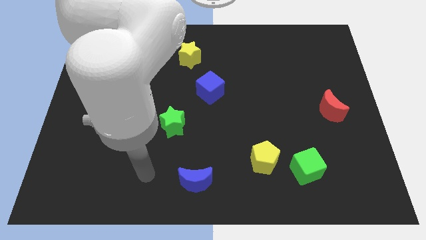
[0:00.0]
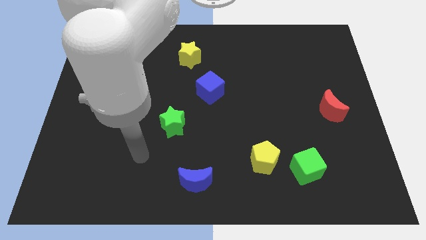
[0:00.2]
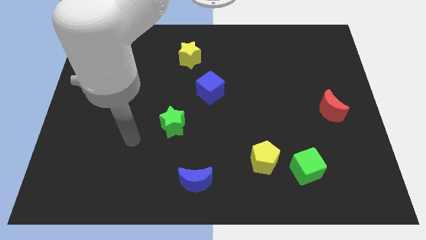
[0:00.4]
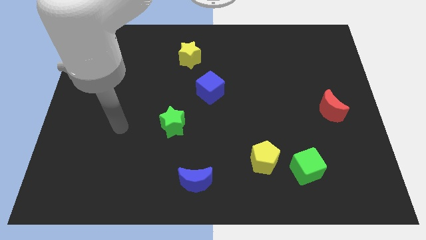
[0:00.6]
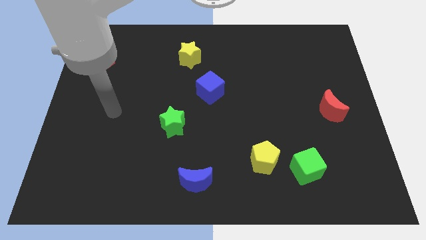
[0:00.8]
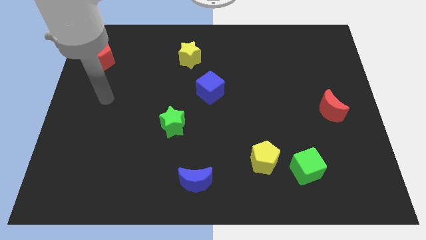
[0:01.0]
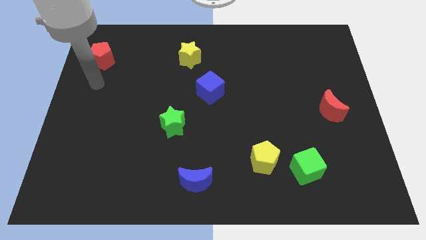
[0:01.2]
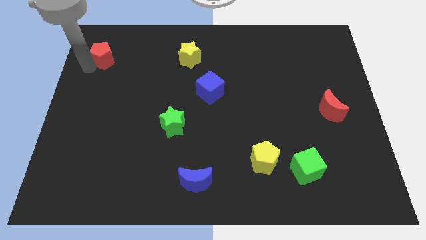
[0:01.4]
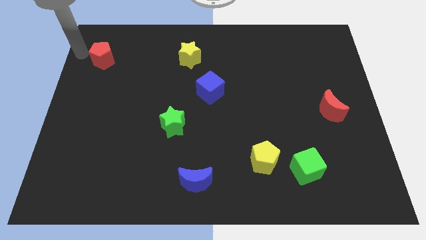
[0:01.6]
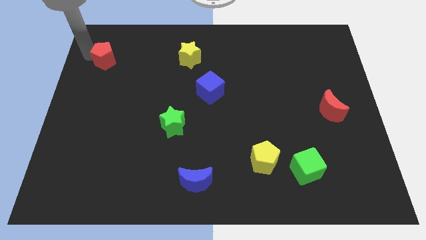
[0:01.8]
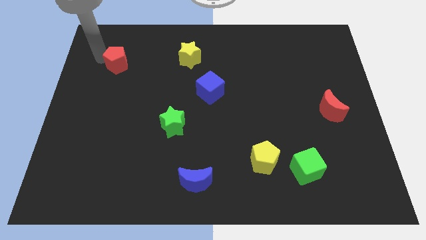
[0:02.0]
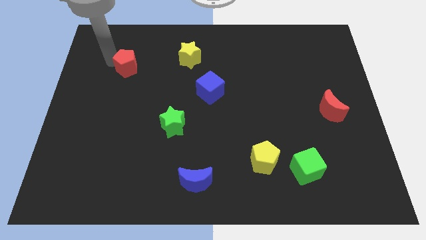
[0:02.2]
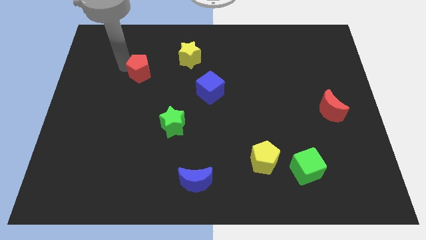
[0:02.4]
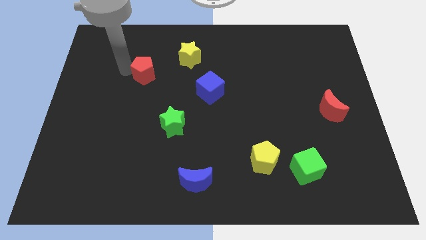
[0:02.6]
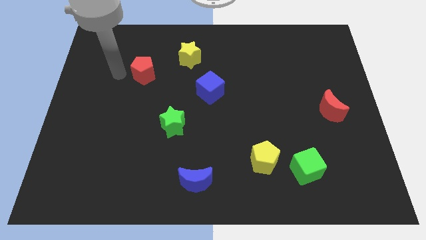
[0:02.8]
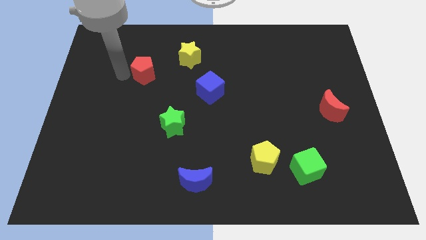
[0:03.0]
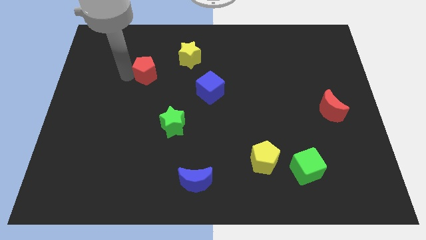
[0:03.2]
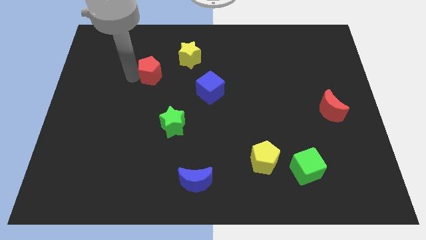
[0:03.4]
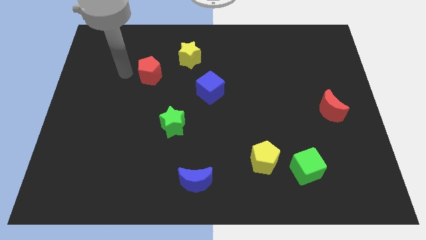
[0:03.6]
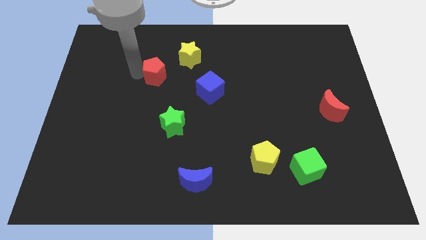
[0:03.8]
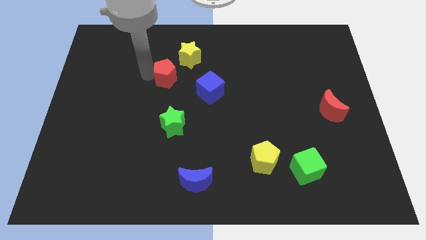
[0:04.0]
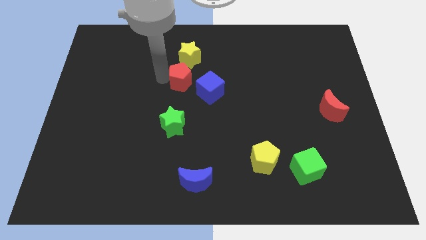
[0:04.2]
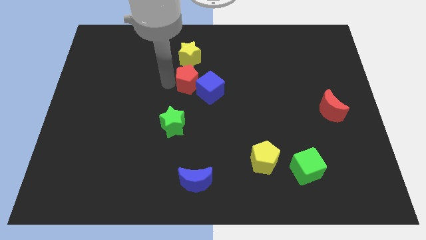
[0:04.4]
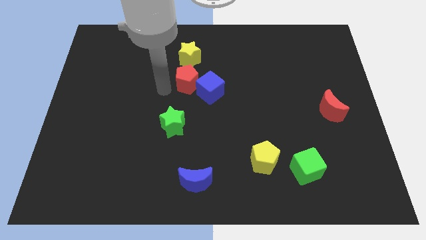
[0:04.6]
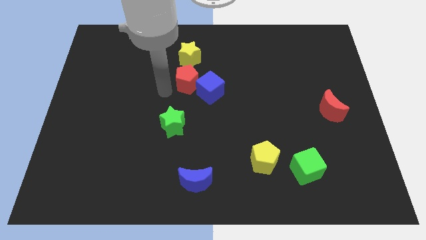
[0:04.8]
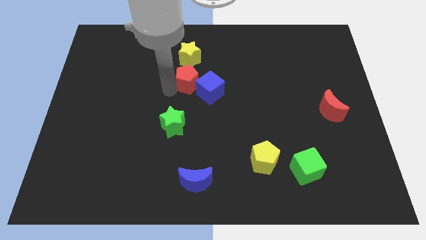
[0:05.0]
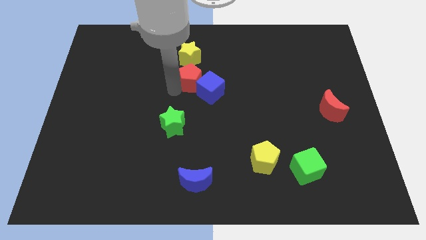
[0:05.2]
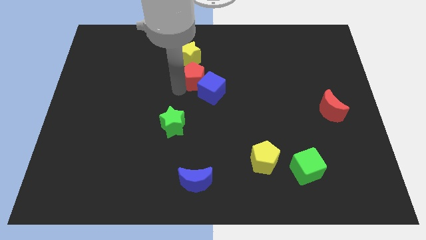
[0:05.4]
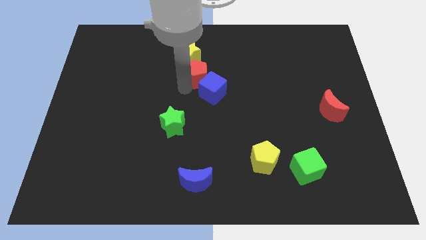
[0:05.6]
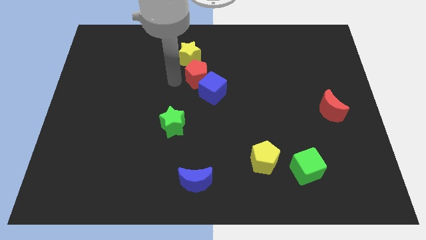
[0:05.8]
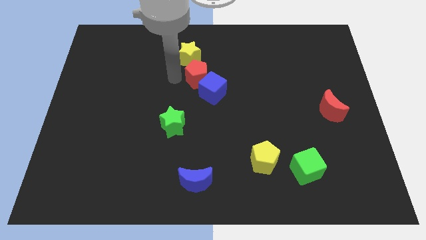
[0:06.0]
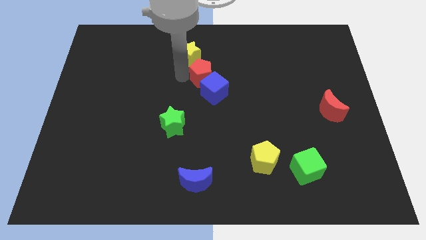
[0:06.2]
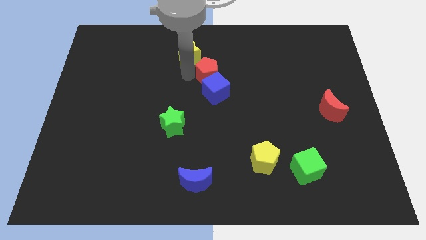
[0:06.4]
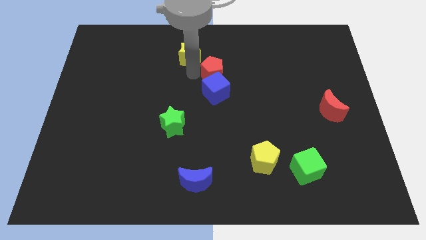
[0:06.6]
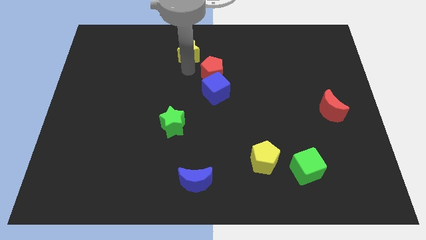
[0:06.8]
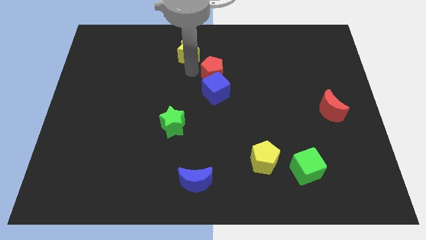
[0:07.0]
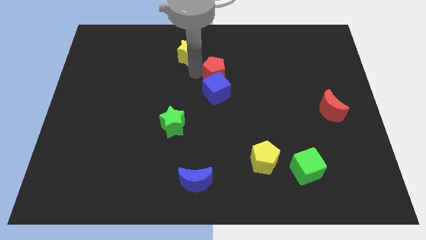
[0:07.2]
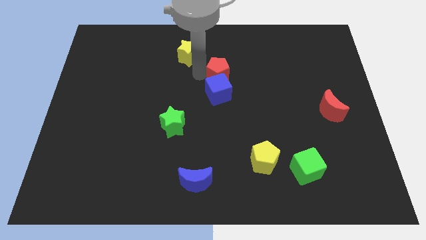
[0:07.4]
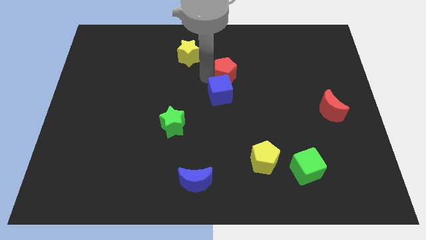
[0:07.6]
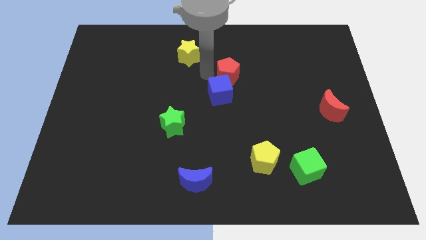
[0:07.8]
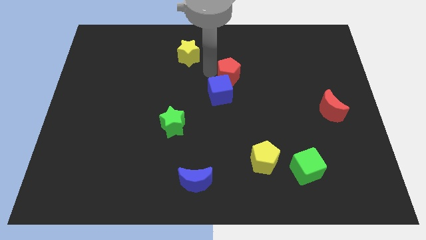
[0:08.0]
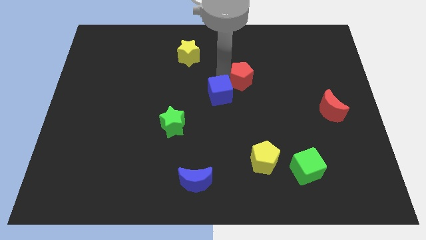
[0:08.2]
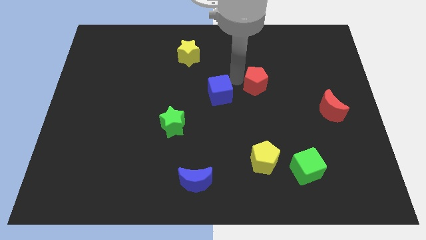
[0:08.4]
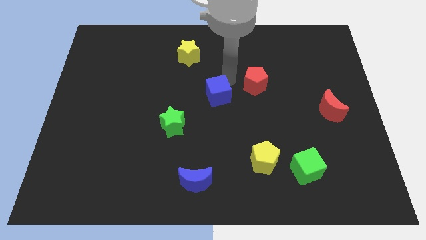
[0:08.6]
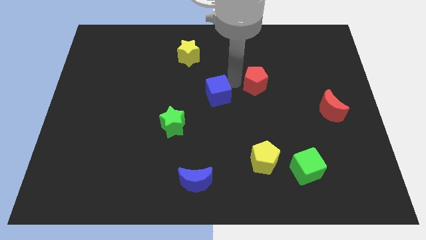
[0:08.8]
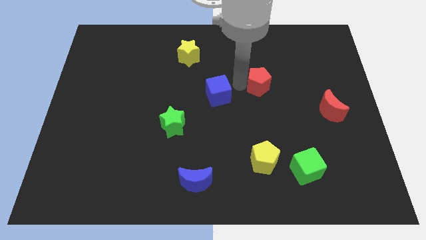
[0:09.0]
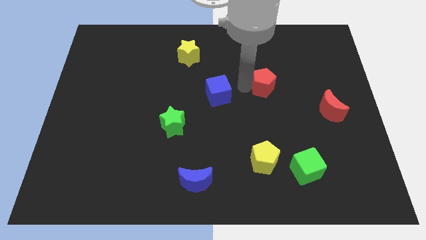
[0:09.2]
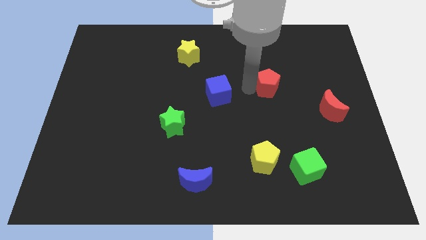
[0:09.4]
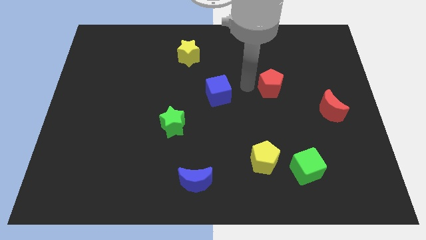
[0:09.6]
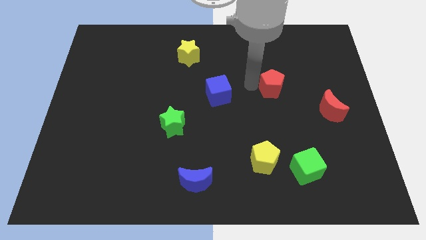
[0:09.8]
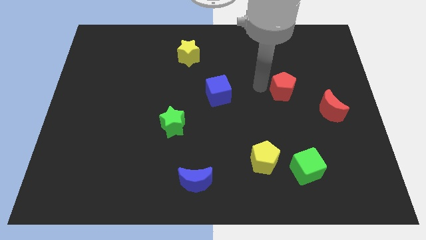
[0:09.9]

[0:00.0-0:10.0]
move the red pentagon diagonally up and to the left of the red moon

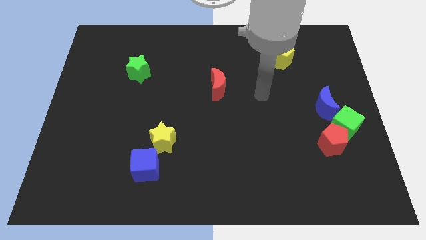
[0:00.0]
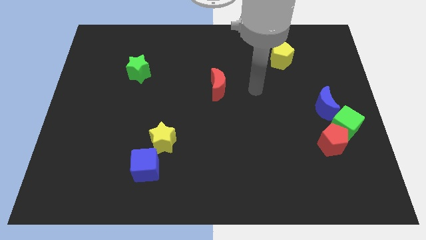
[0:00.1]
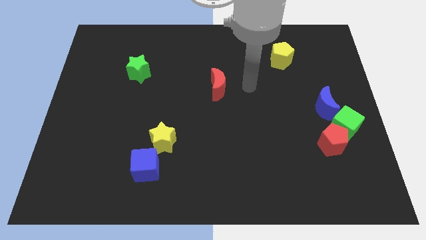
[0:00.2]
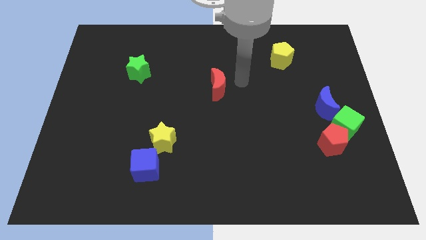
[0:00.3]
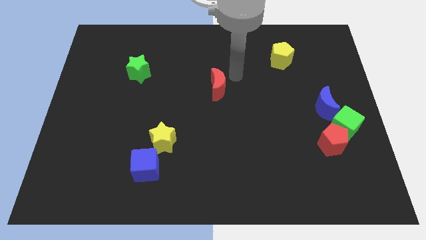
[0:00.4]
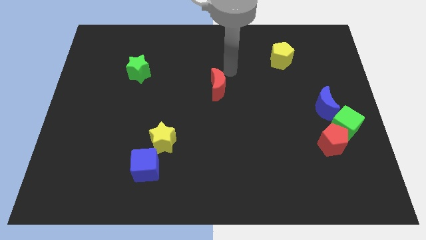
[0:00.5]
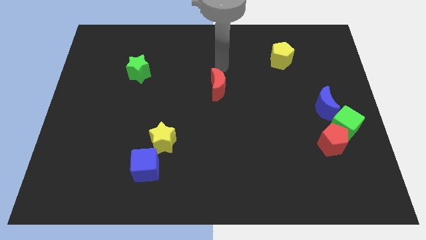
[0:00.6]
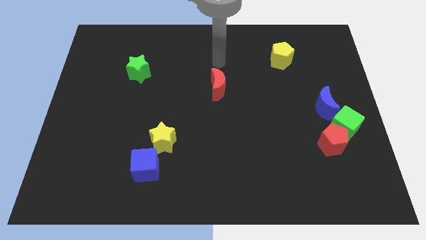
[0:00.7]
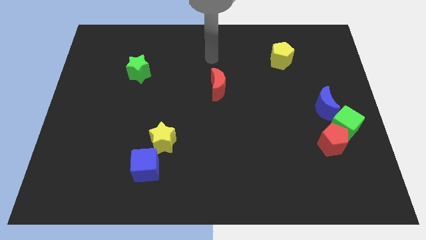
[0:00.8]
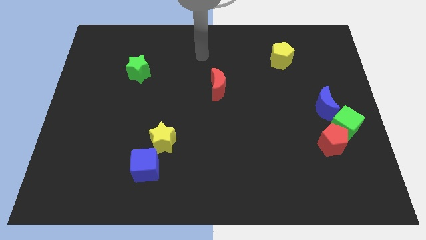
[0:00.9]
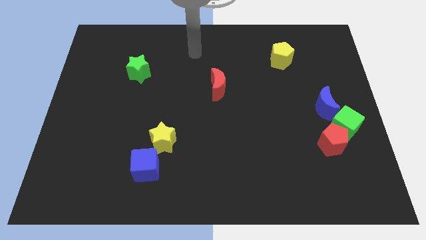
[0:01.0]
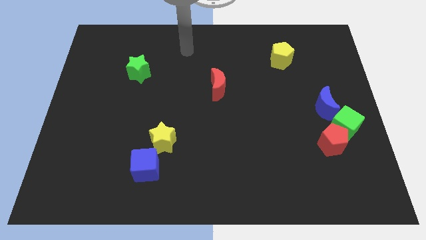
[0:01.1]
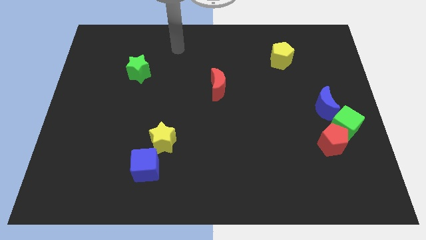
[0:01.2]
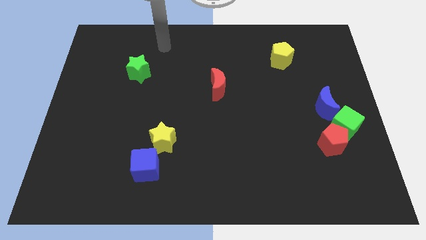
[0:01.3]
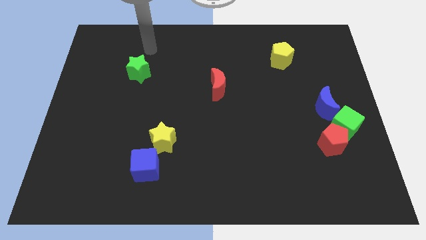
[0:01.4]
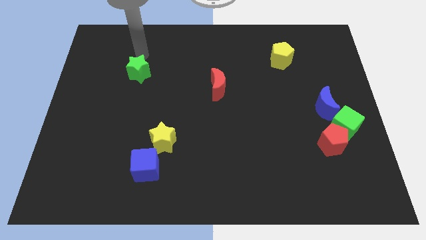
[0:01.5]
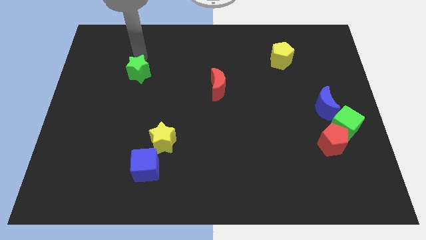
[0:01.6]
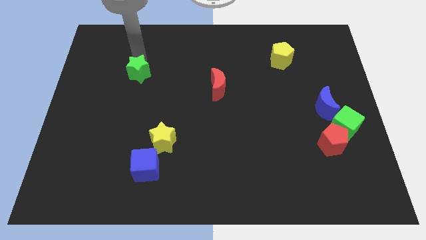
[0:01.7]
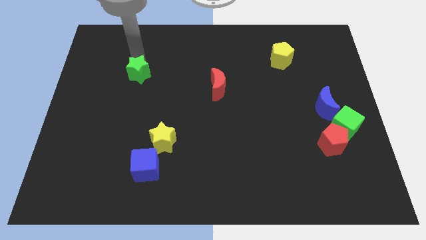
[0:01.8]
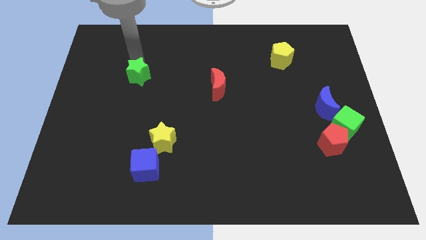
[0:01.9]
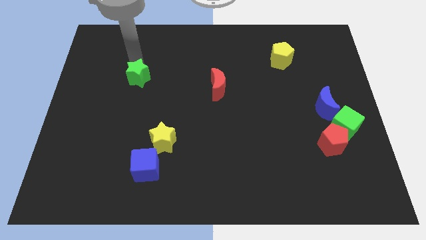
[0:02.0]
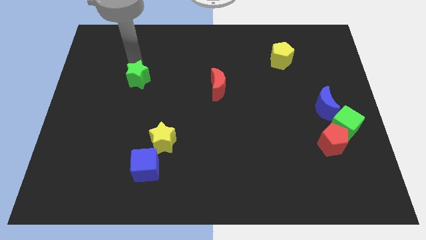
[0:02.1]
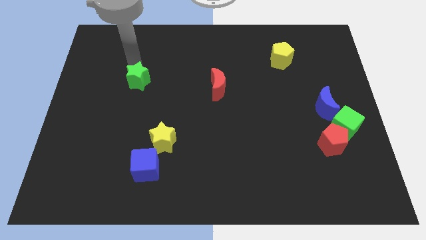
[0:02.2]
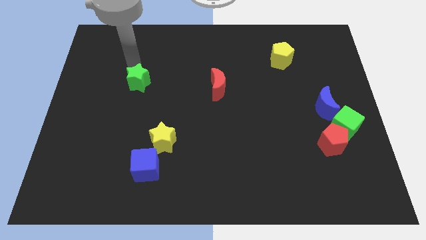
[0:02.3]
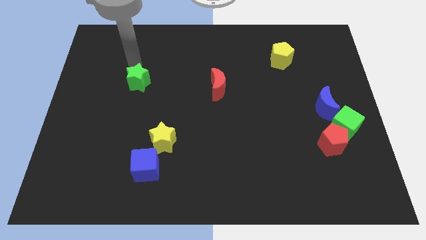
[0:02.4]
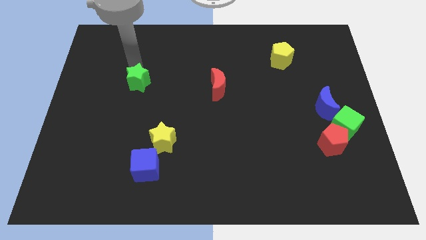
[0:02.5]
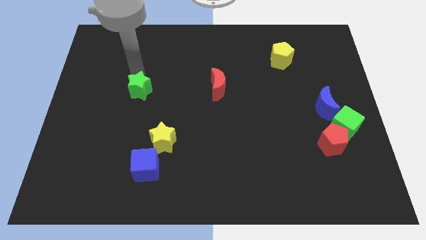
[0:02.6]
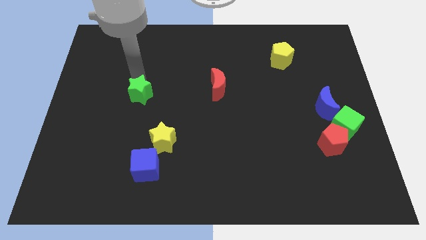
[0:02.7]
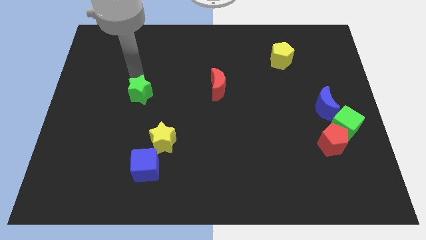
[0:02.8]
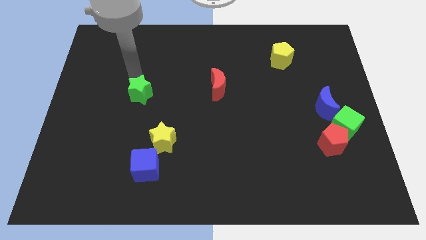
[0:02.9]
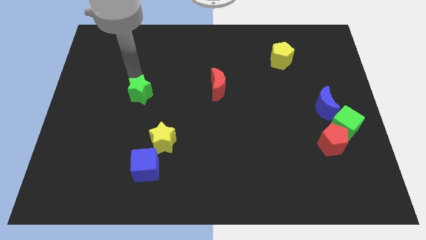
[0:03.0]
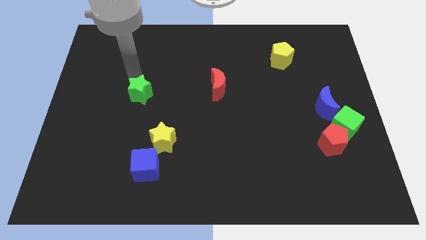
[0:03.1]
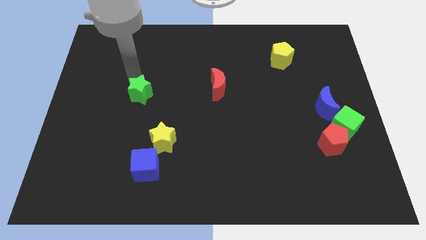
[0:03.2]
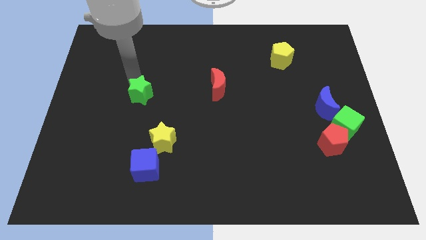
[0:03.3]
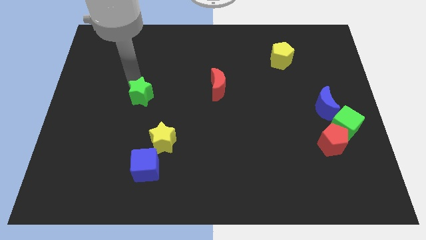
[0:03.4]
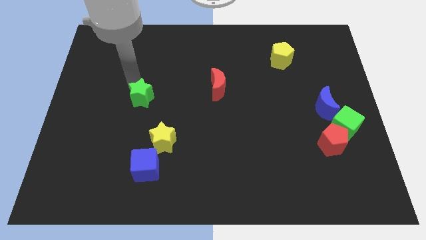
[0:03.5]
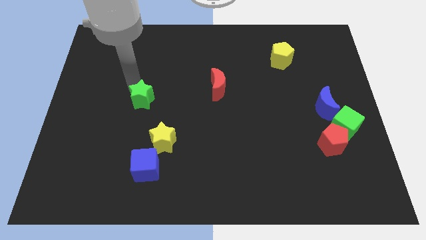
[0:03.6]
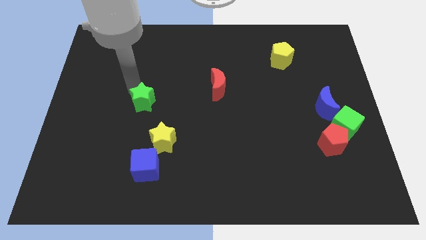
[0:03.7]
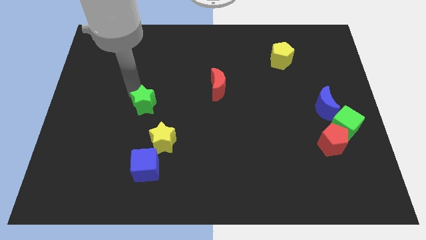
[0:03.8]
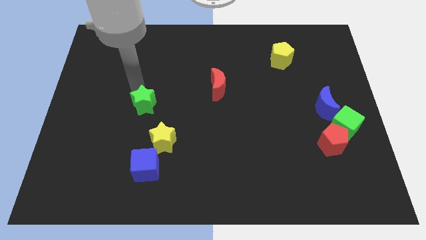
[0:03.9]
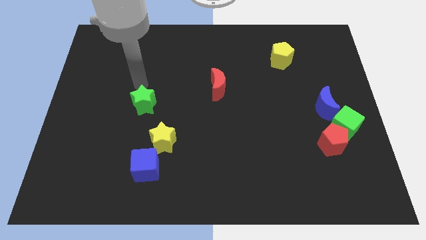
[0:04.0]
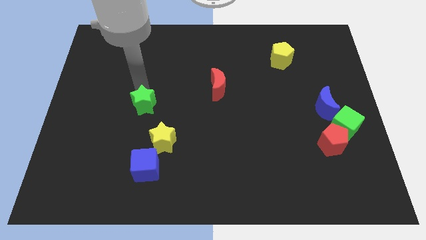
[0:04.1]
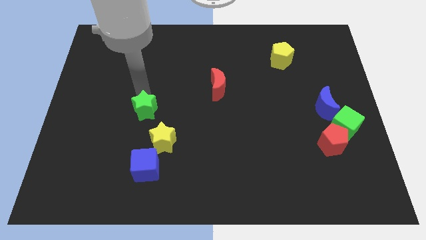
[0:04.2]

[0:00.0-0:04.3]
slide the green star to the top of the blue cube
